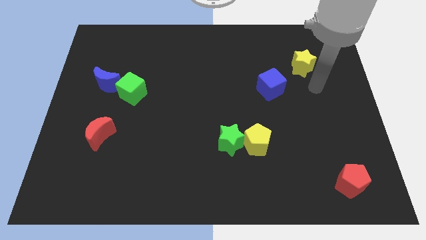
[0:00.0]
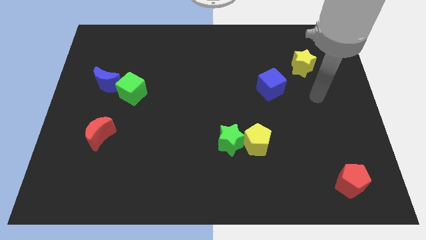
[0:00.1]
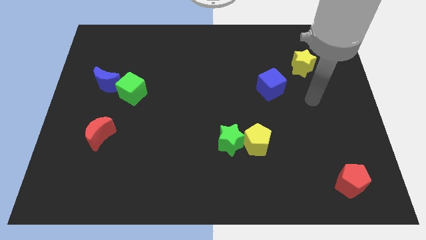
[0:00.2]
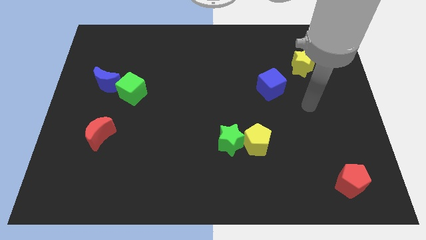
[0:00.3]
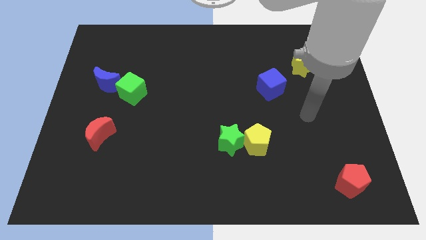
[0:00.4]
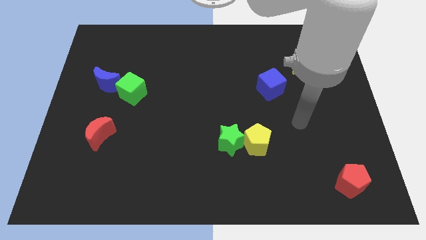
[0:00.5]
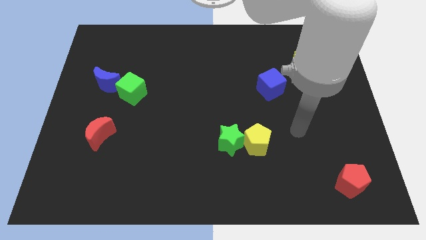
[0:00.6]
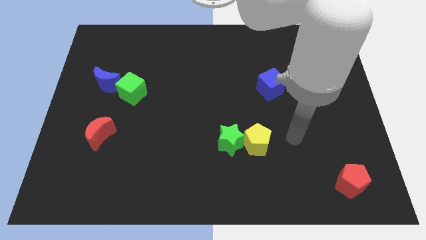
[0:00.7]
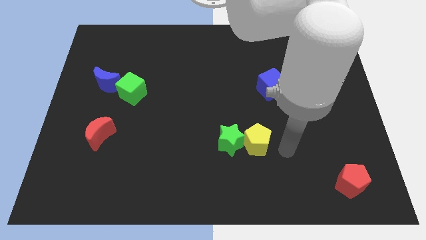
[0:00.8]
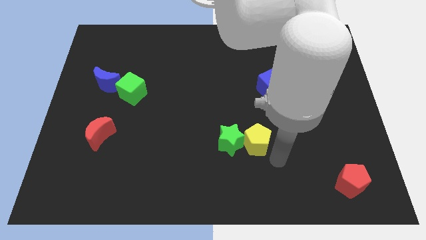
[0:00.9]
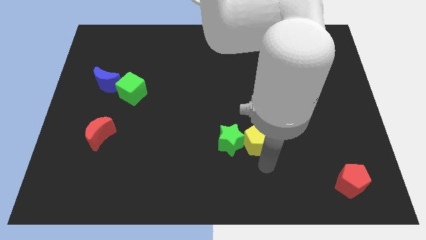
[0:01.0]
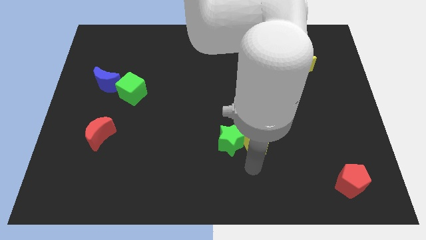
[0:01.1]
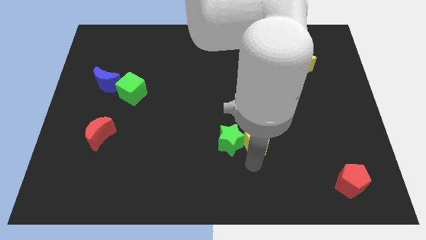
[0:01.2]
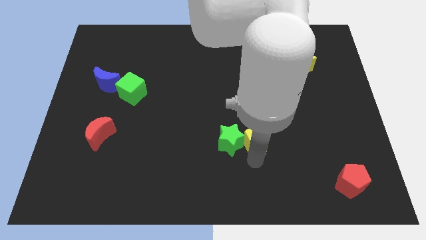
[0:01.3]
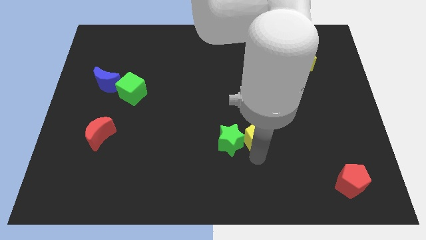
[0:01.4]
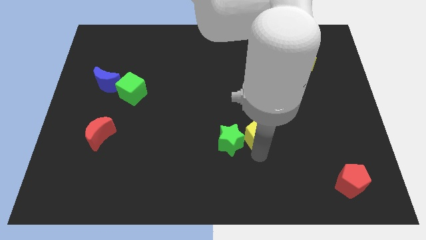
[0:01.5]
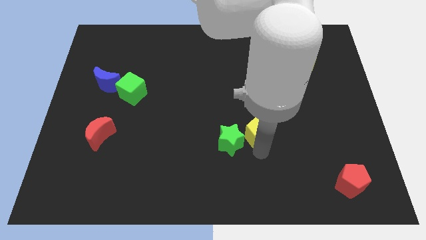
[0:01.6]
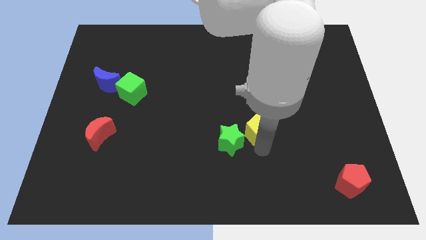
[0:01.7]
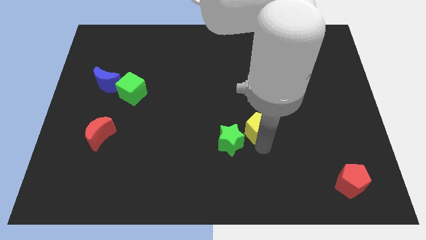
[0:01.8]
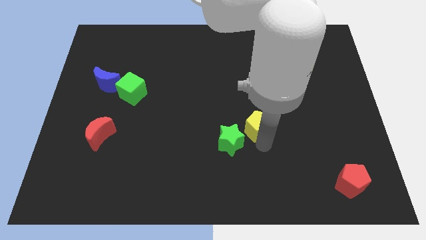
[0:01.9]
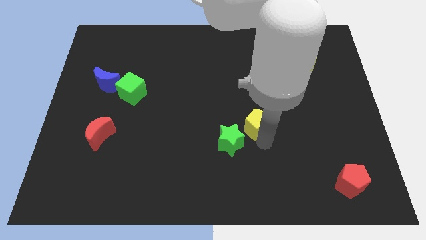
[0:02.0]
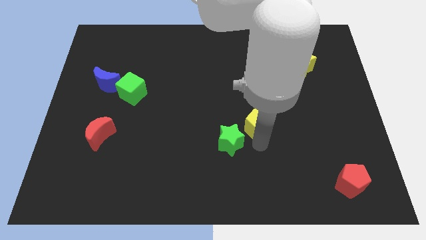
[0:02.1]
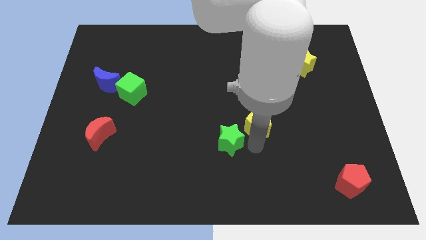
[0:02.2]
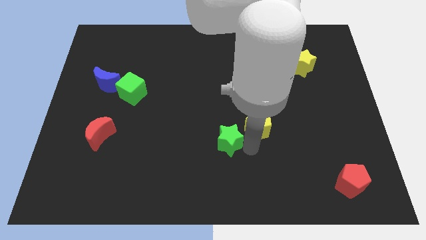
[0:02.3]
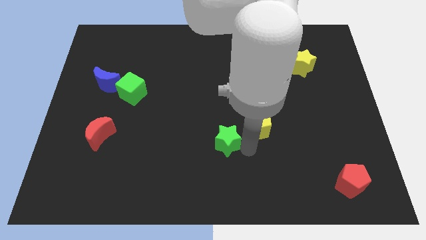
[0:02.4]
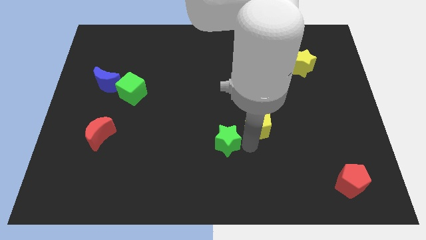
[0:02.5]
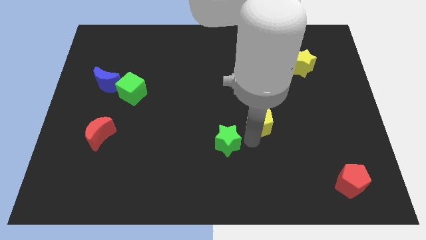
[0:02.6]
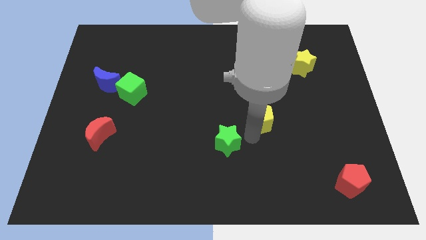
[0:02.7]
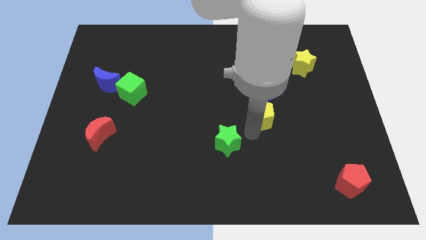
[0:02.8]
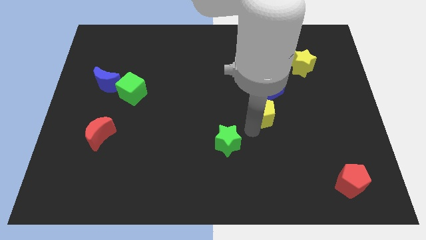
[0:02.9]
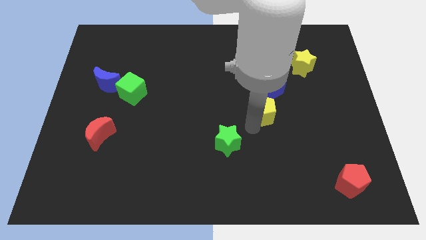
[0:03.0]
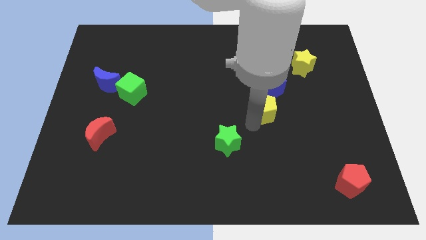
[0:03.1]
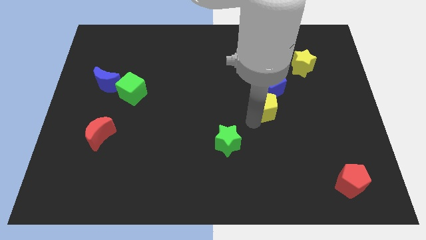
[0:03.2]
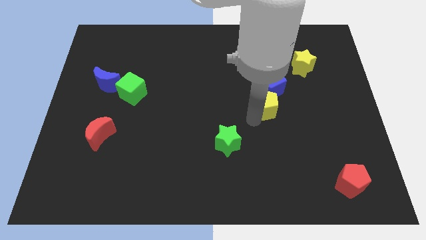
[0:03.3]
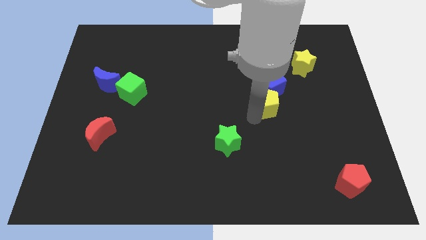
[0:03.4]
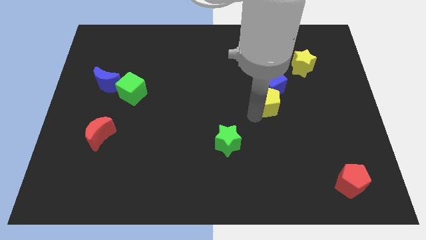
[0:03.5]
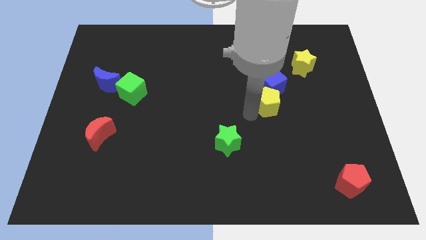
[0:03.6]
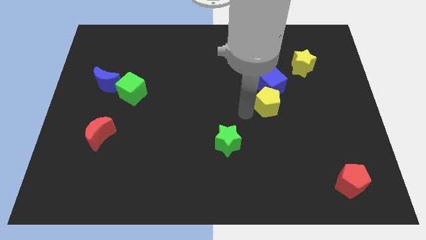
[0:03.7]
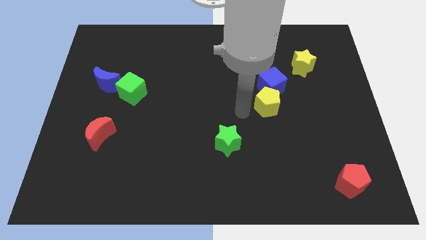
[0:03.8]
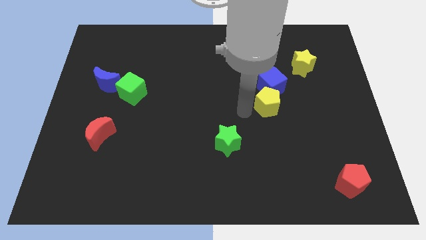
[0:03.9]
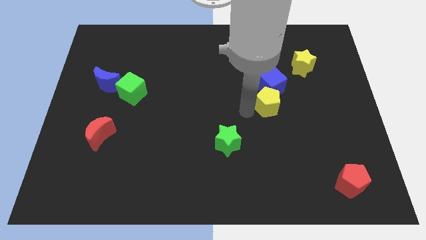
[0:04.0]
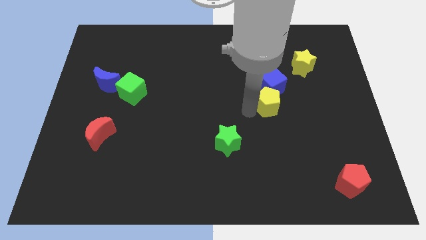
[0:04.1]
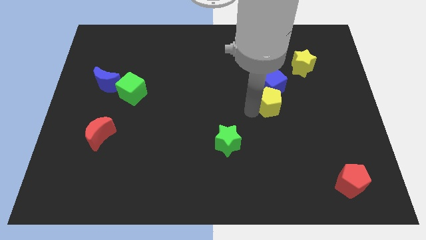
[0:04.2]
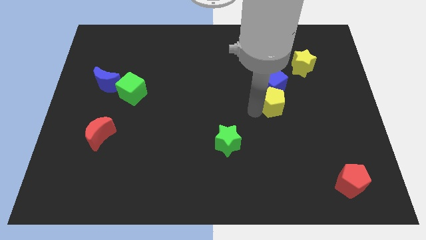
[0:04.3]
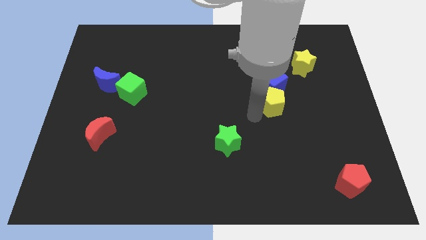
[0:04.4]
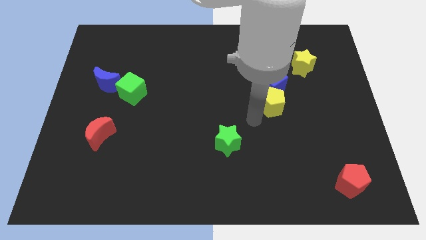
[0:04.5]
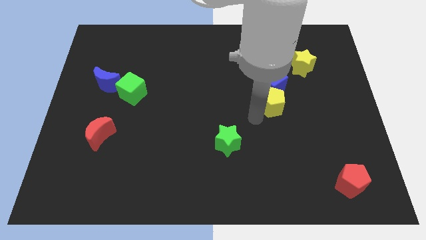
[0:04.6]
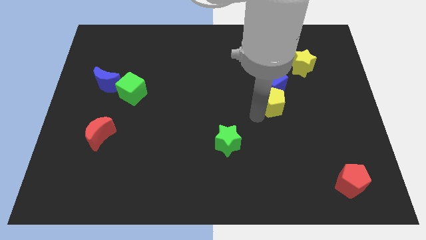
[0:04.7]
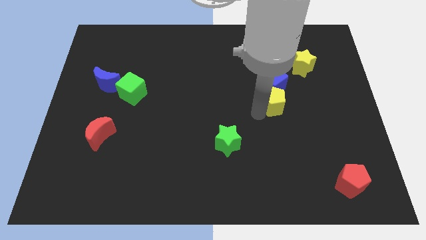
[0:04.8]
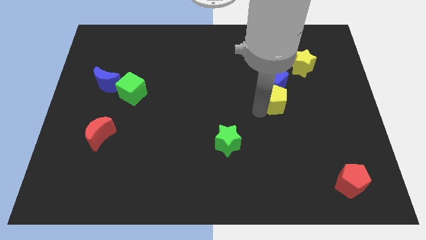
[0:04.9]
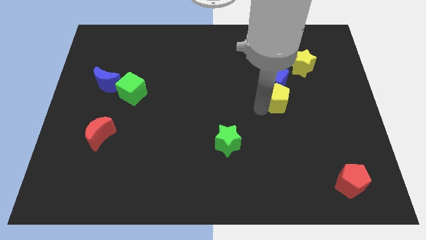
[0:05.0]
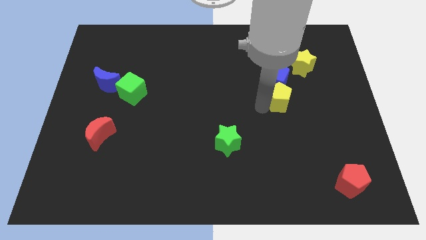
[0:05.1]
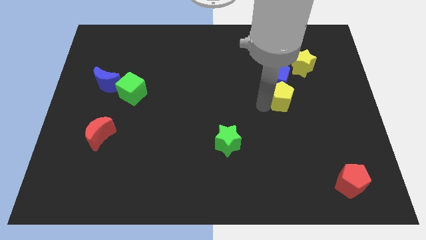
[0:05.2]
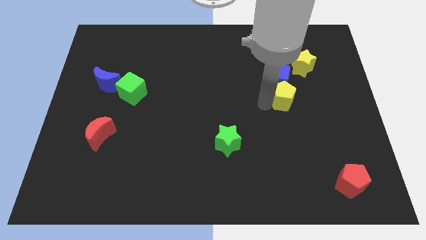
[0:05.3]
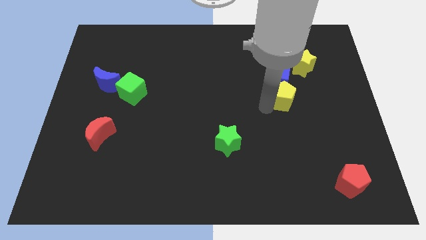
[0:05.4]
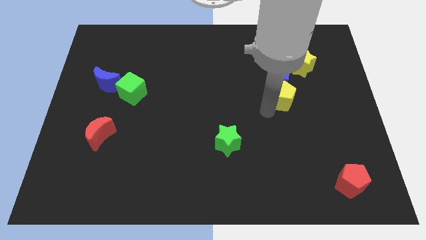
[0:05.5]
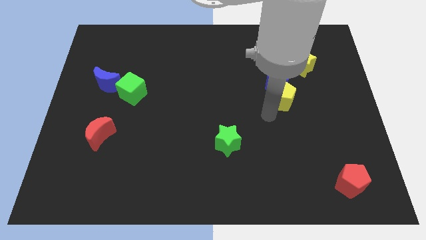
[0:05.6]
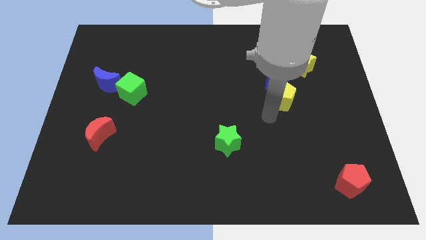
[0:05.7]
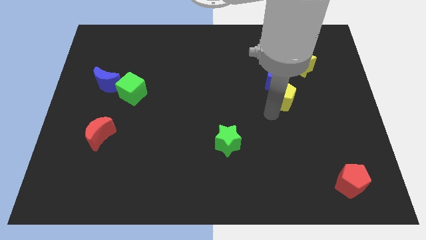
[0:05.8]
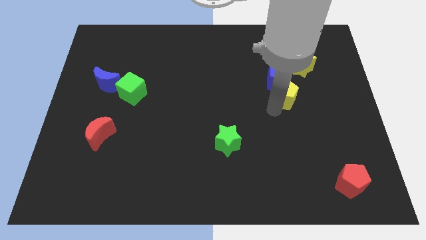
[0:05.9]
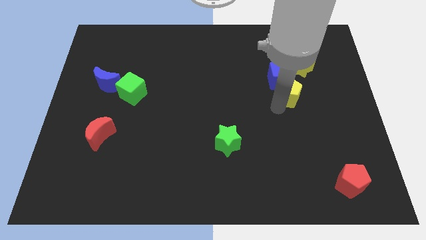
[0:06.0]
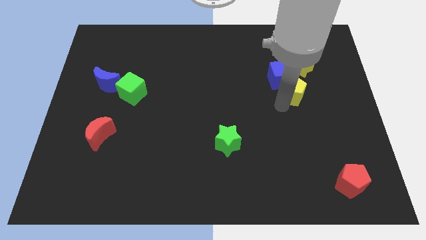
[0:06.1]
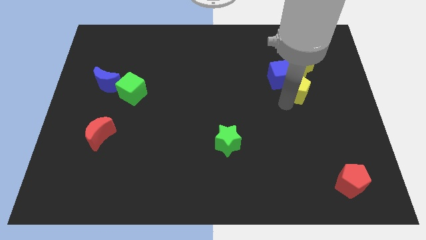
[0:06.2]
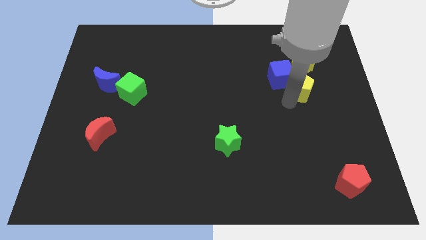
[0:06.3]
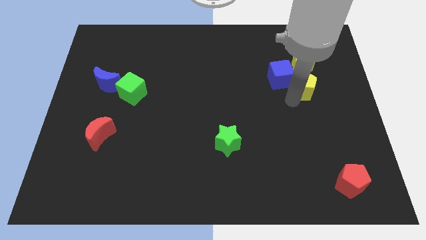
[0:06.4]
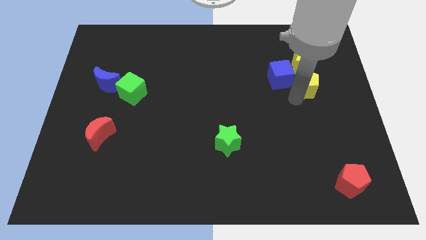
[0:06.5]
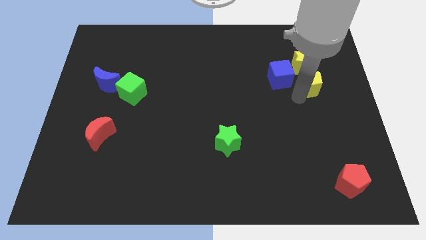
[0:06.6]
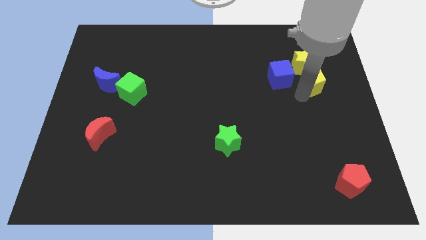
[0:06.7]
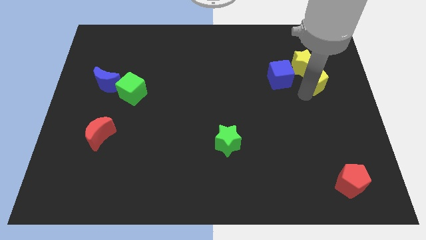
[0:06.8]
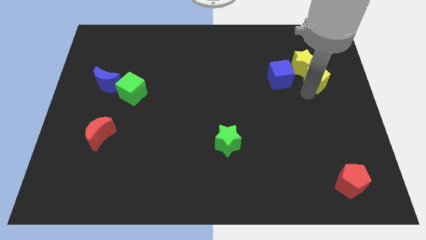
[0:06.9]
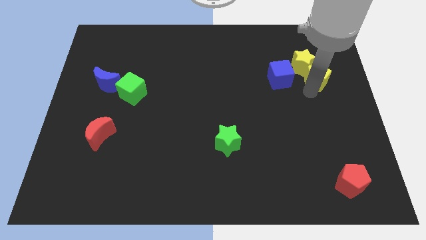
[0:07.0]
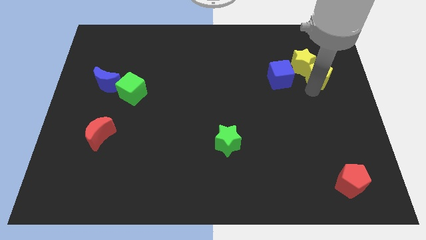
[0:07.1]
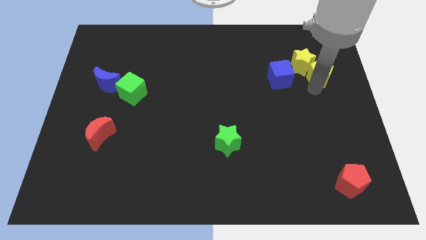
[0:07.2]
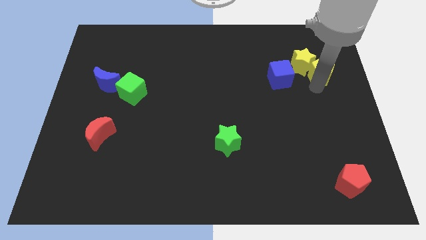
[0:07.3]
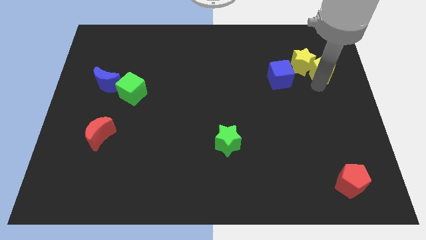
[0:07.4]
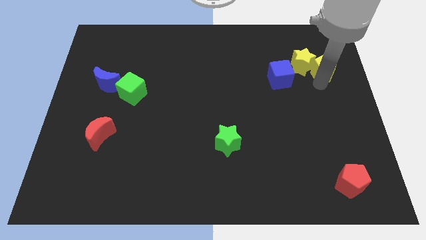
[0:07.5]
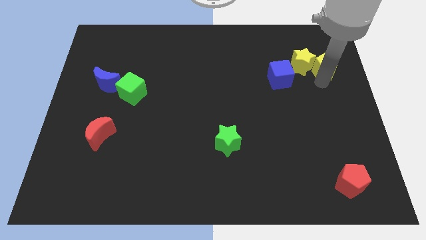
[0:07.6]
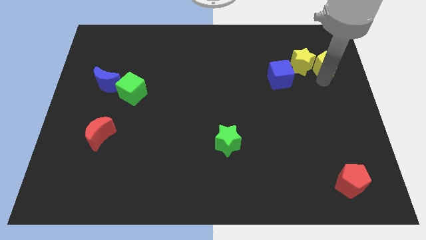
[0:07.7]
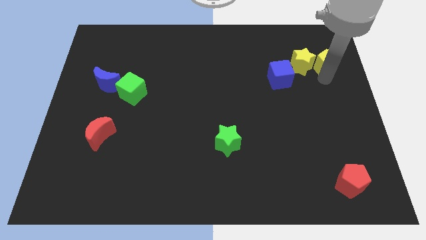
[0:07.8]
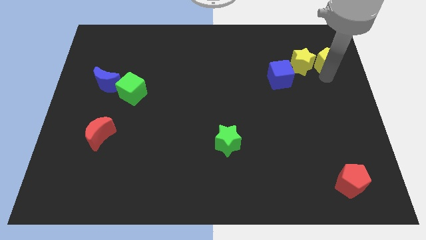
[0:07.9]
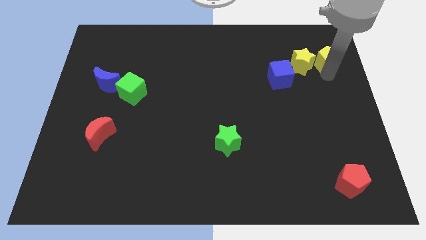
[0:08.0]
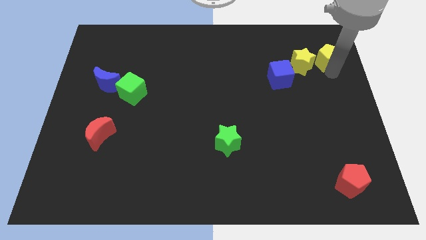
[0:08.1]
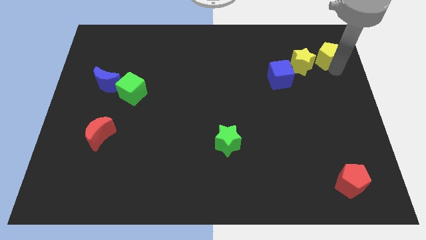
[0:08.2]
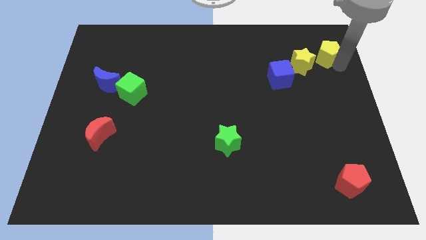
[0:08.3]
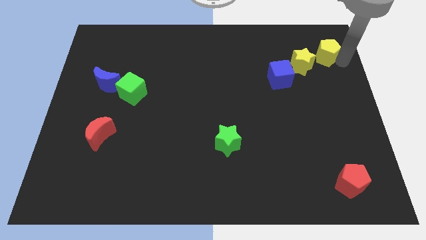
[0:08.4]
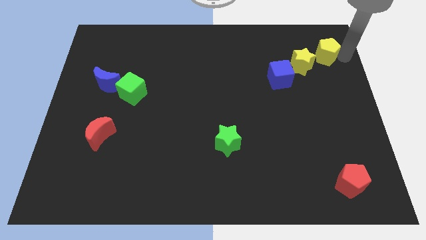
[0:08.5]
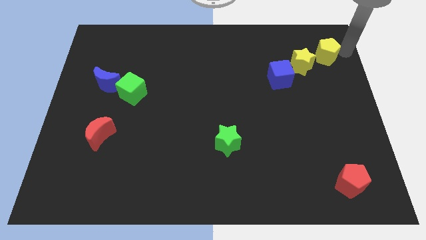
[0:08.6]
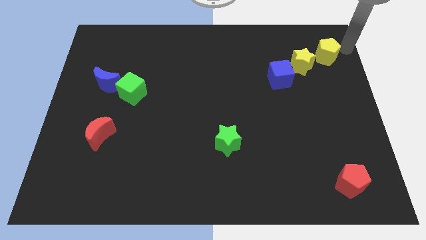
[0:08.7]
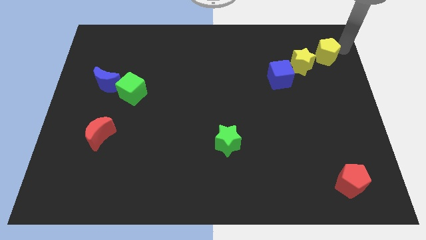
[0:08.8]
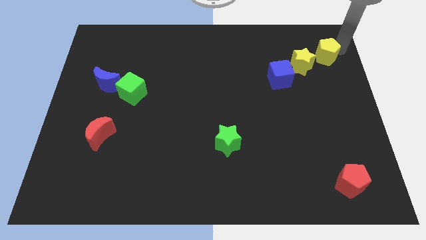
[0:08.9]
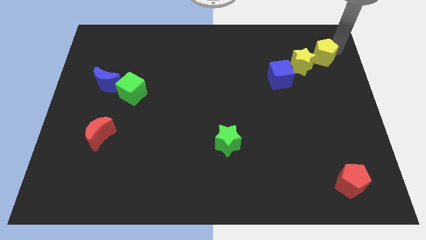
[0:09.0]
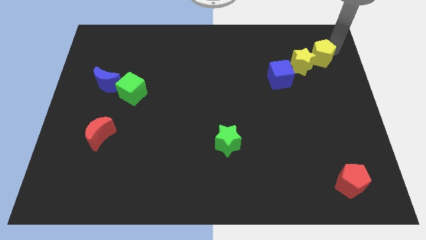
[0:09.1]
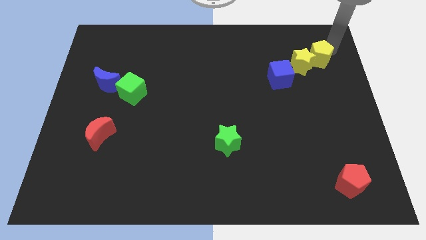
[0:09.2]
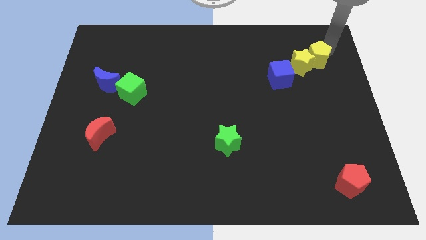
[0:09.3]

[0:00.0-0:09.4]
put the yellow pentagon diagonally up and to the right of the blue cube
